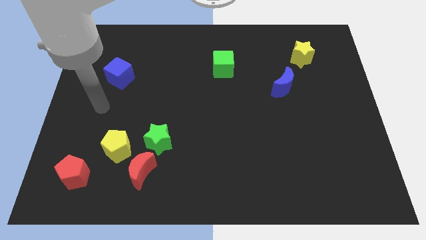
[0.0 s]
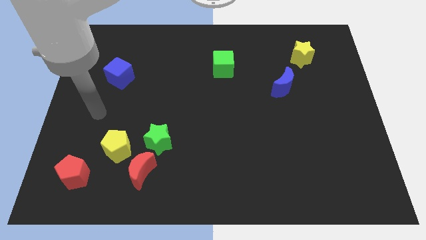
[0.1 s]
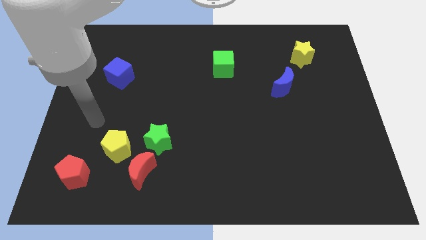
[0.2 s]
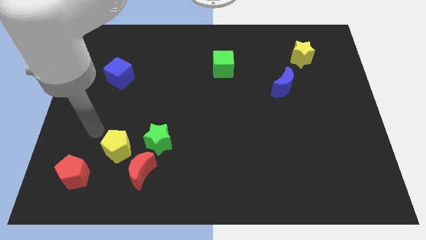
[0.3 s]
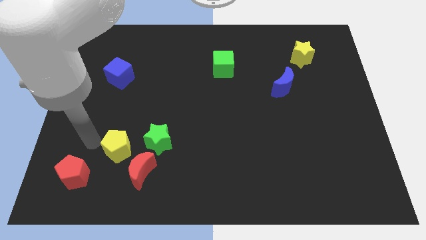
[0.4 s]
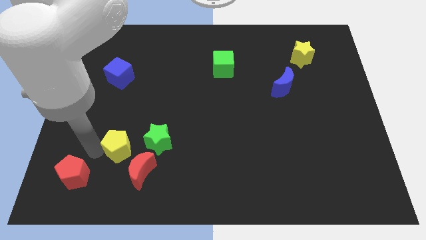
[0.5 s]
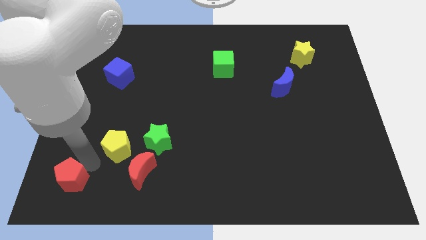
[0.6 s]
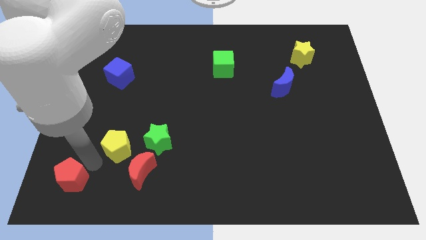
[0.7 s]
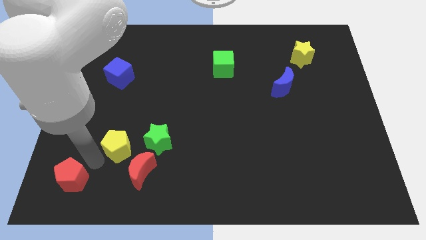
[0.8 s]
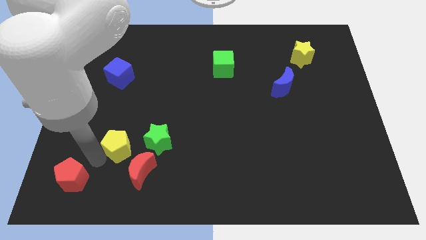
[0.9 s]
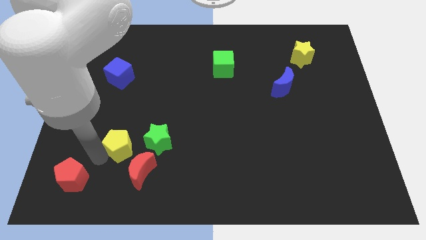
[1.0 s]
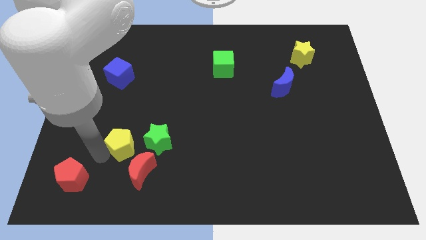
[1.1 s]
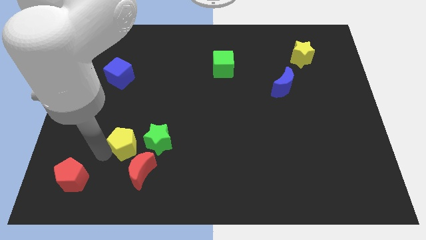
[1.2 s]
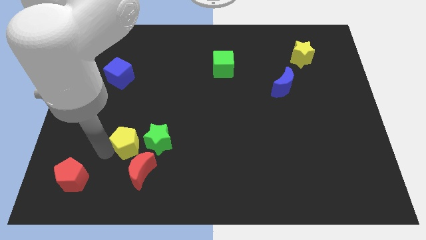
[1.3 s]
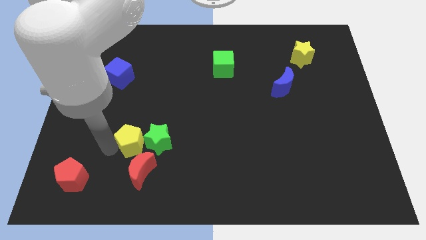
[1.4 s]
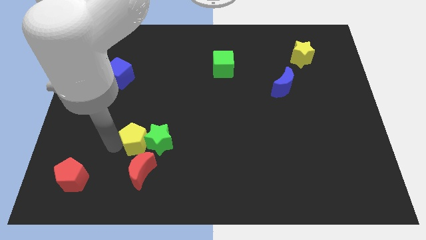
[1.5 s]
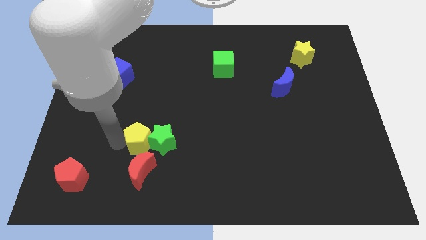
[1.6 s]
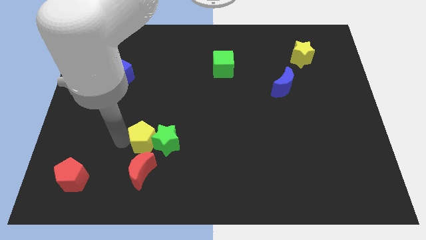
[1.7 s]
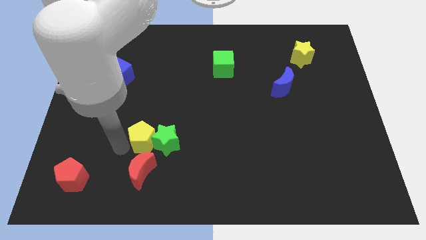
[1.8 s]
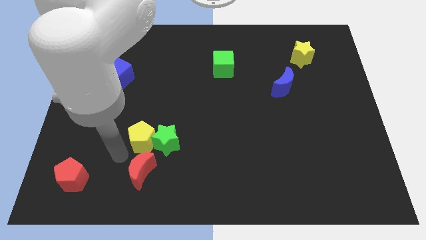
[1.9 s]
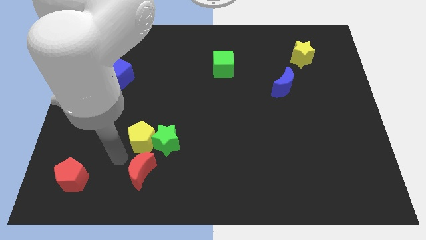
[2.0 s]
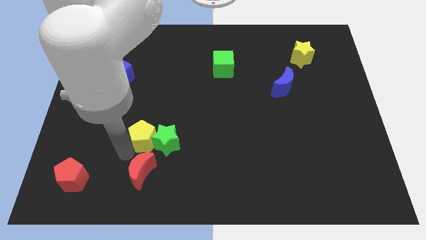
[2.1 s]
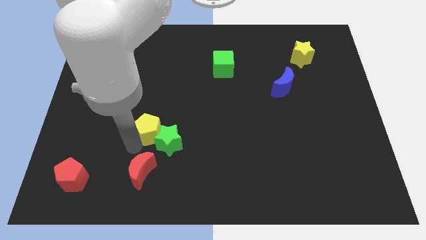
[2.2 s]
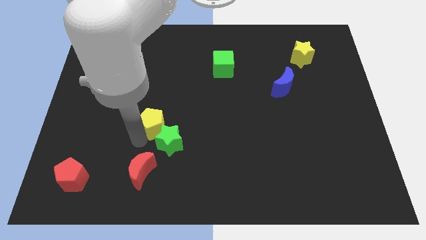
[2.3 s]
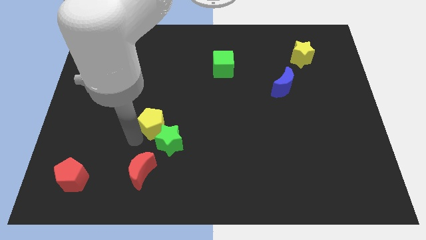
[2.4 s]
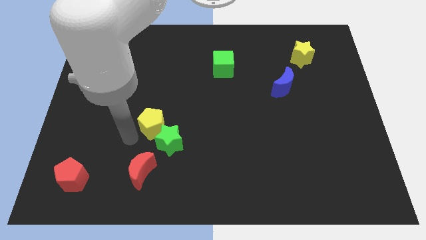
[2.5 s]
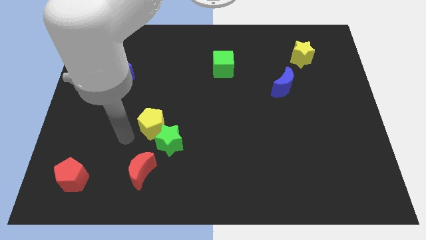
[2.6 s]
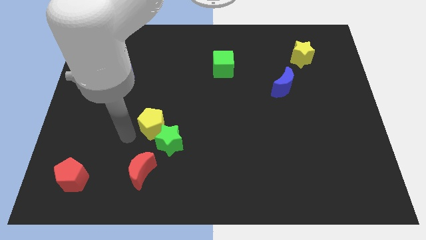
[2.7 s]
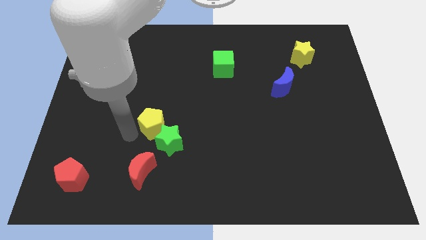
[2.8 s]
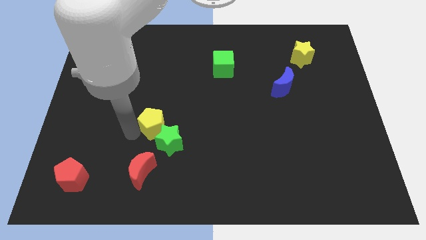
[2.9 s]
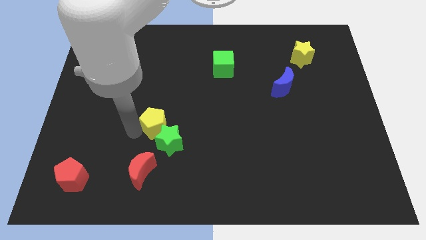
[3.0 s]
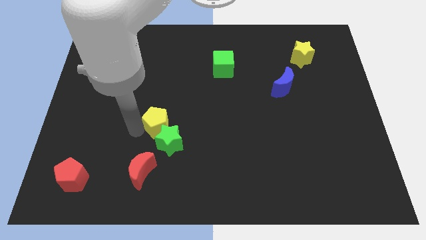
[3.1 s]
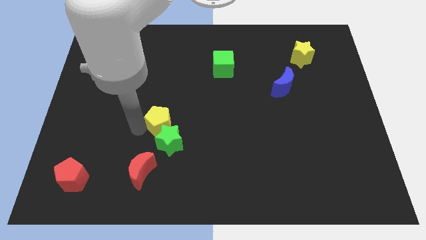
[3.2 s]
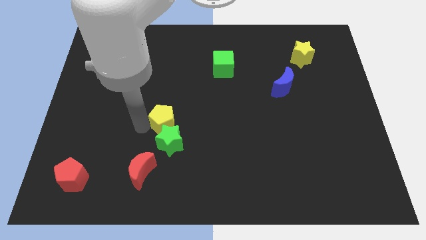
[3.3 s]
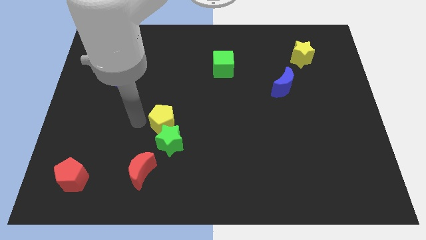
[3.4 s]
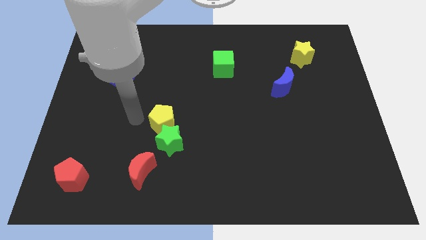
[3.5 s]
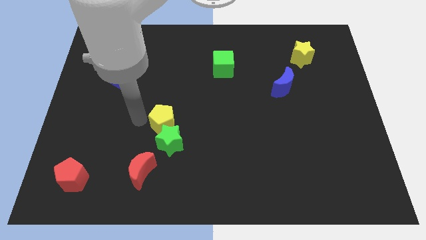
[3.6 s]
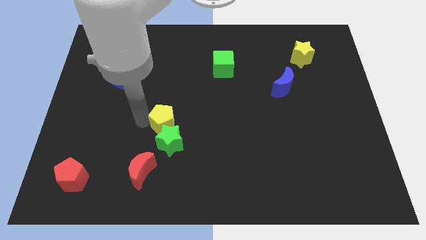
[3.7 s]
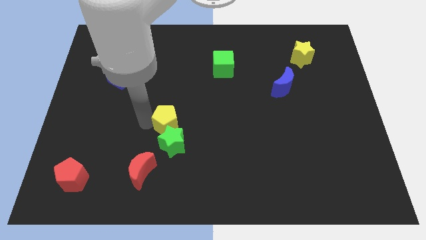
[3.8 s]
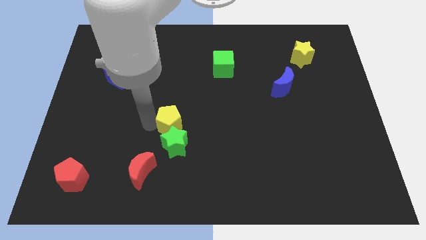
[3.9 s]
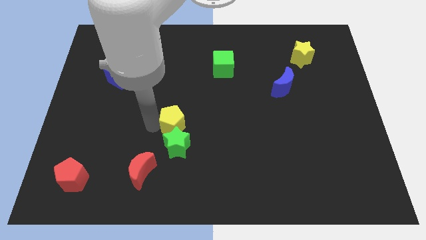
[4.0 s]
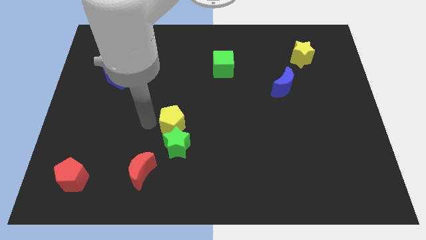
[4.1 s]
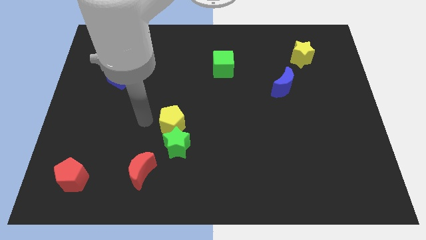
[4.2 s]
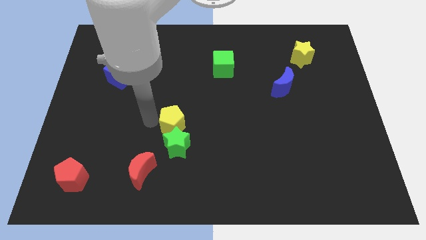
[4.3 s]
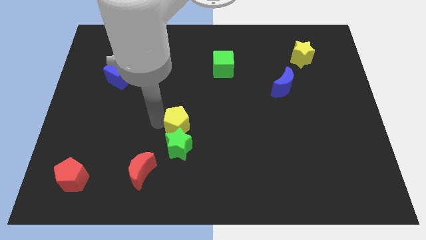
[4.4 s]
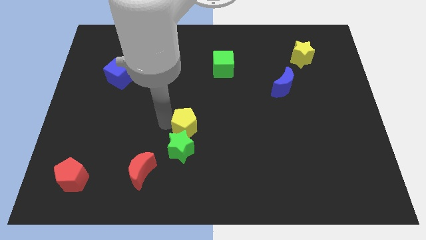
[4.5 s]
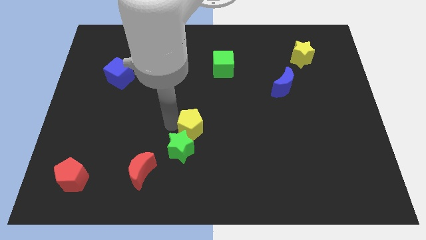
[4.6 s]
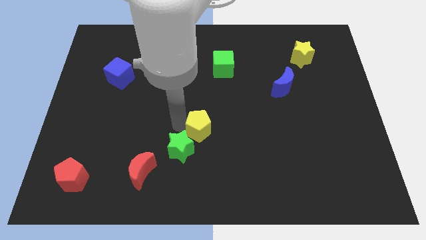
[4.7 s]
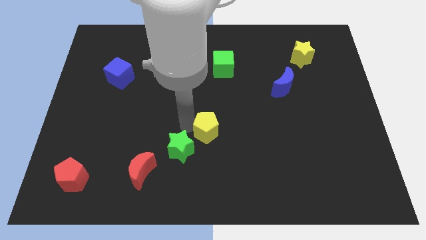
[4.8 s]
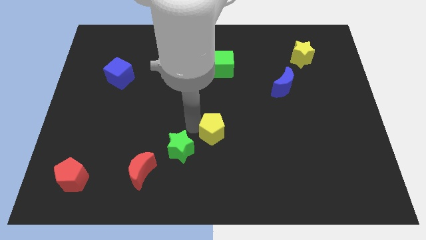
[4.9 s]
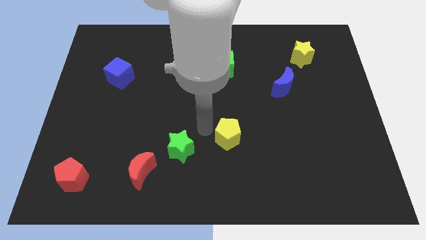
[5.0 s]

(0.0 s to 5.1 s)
slide the yellow pentagon to the right

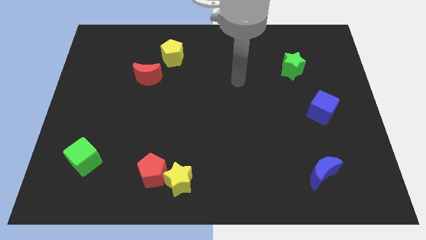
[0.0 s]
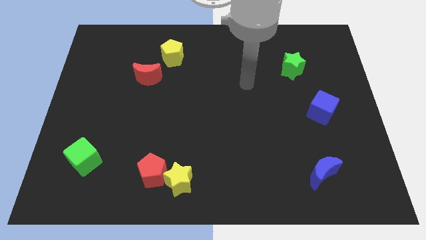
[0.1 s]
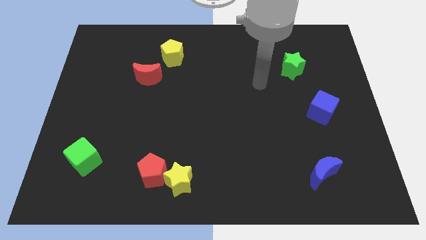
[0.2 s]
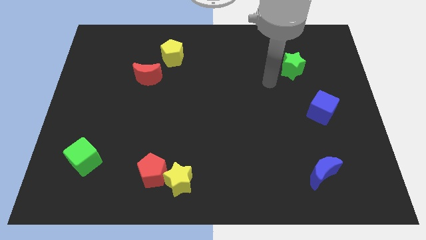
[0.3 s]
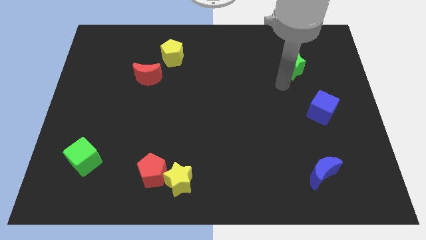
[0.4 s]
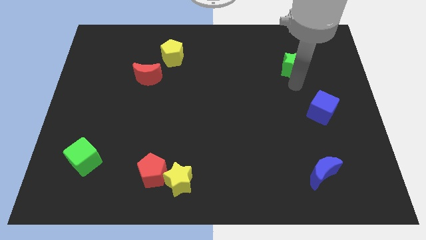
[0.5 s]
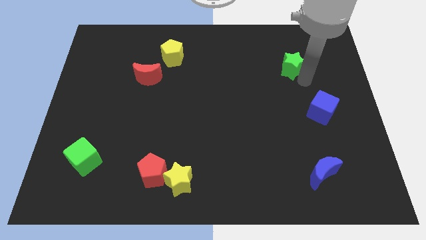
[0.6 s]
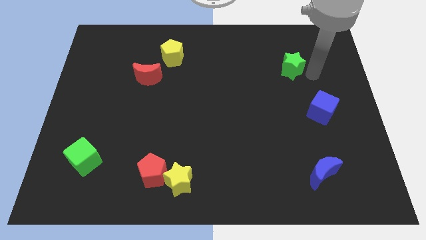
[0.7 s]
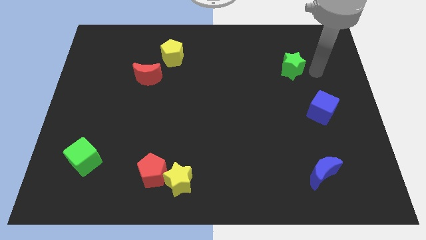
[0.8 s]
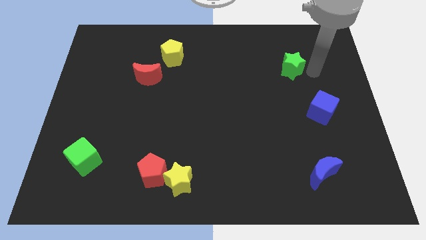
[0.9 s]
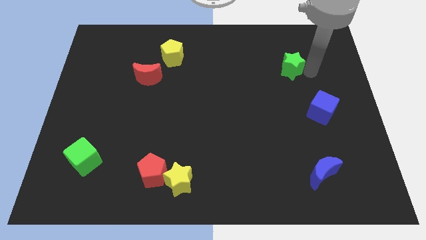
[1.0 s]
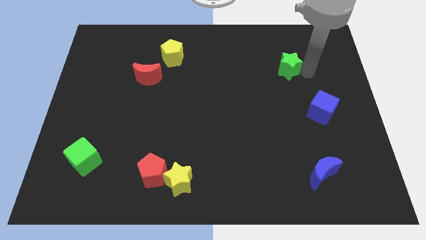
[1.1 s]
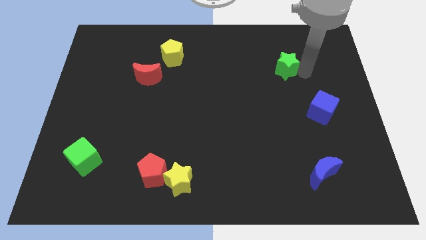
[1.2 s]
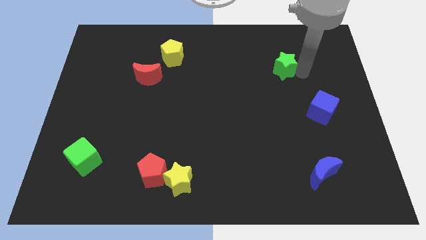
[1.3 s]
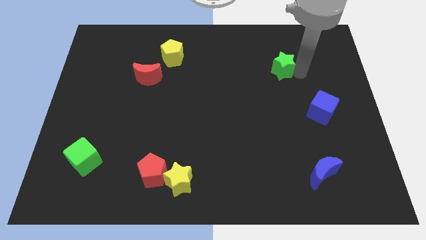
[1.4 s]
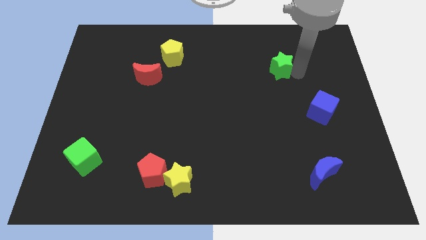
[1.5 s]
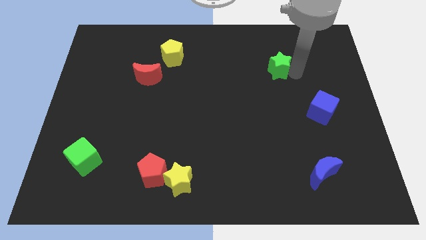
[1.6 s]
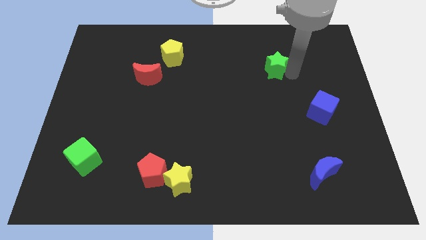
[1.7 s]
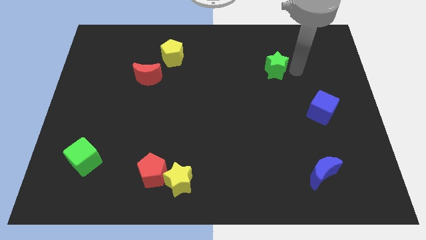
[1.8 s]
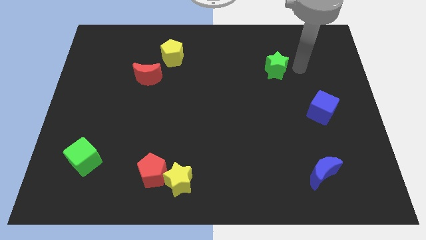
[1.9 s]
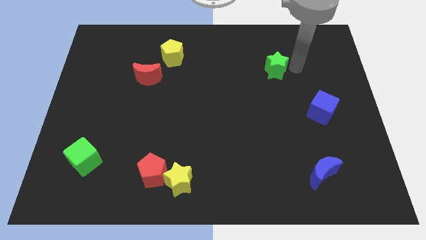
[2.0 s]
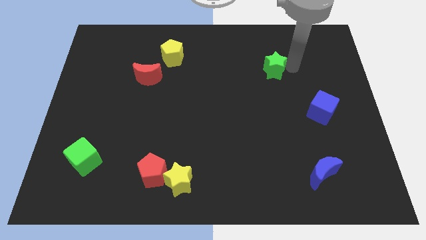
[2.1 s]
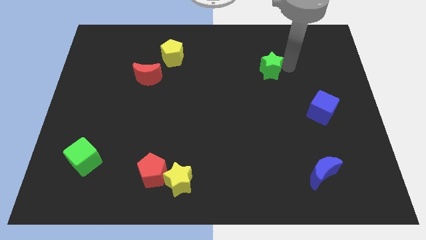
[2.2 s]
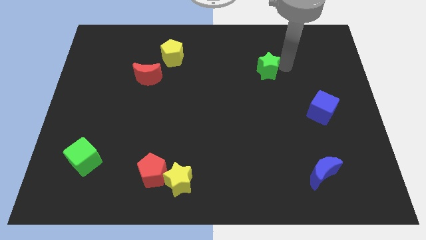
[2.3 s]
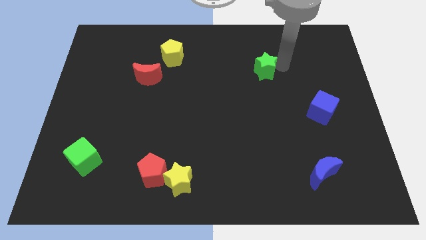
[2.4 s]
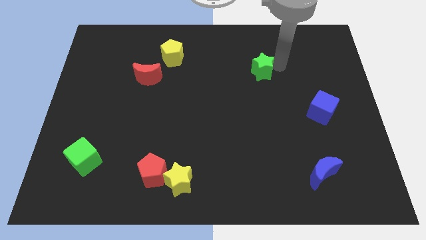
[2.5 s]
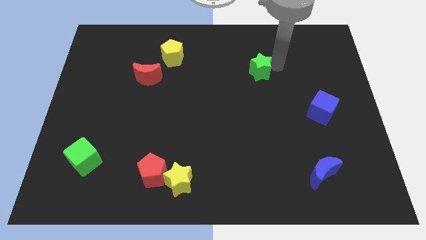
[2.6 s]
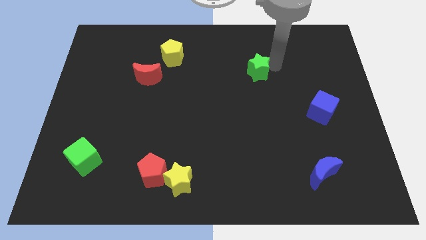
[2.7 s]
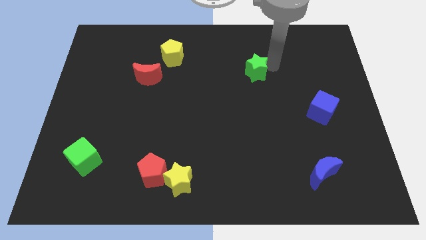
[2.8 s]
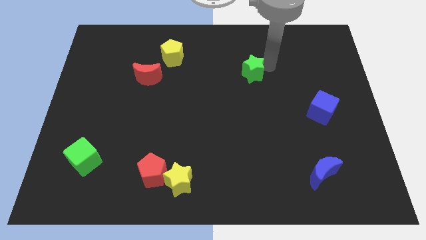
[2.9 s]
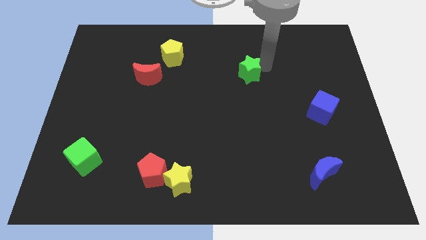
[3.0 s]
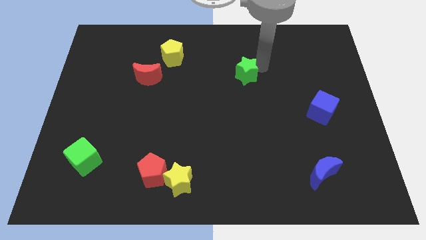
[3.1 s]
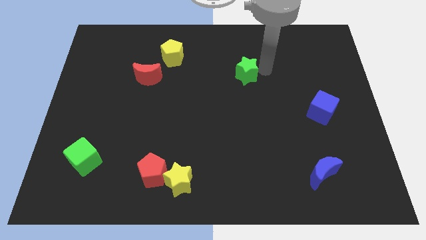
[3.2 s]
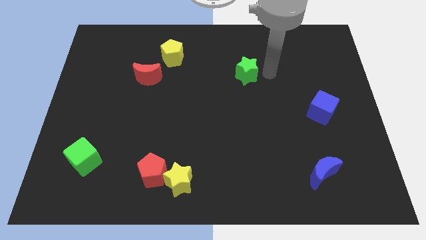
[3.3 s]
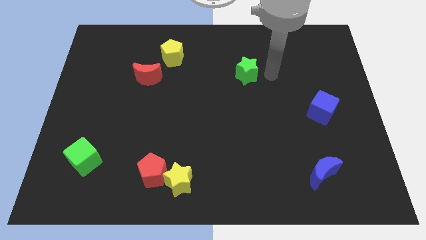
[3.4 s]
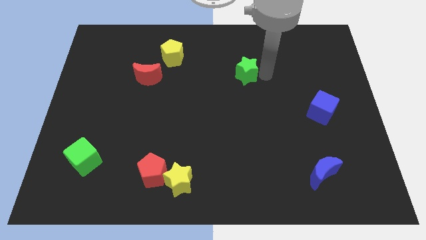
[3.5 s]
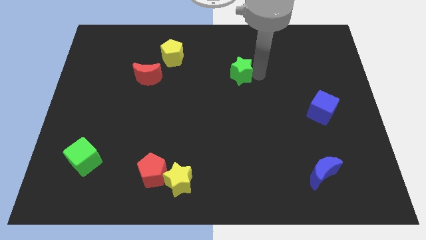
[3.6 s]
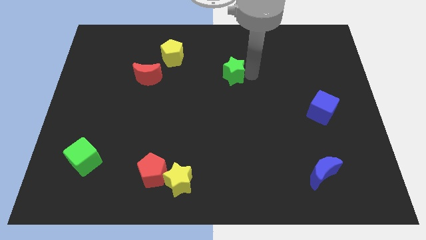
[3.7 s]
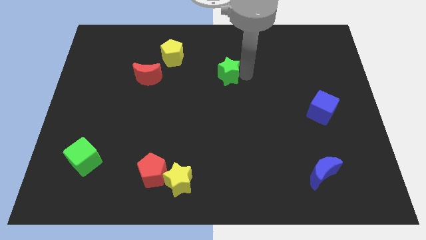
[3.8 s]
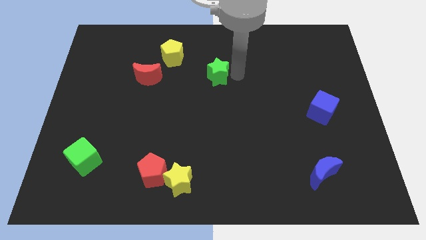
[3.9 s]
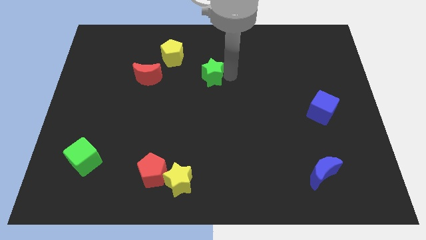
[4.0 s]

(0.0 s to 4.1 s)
slide the green star left
